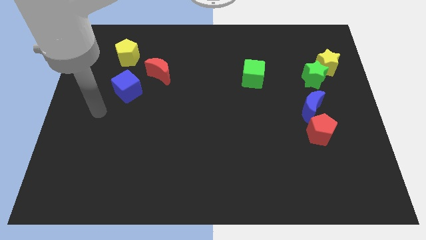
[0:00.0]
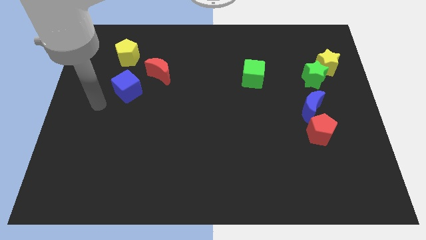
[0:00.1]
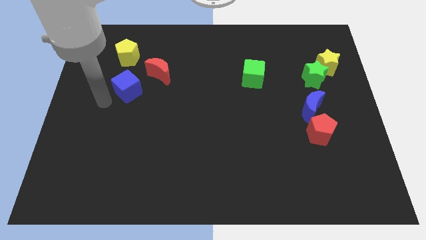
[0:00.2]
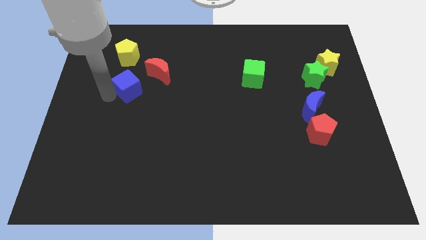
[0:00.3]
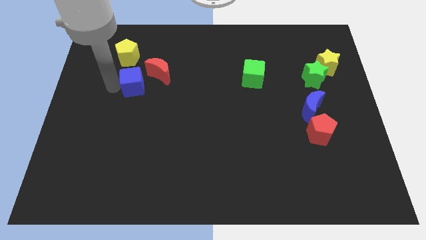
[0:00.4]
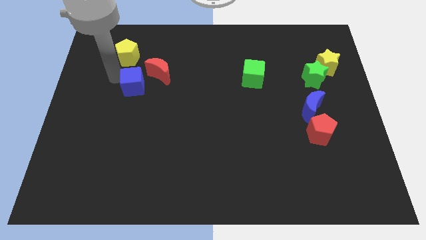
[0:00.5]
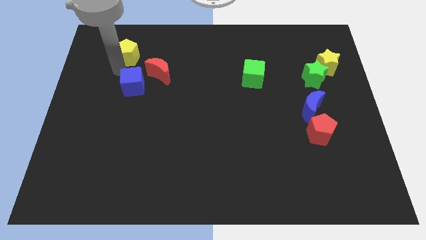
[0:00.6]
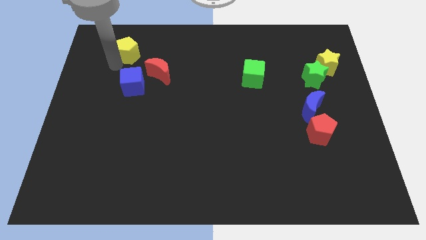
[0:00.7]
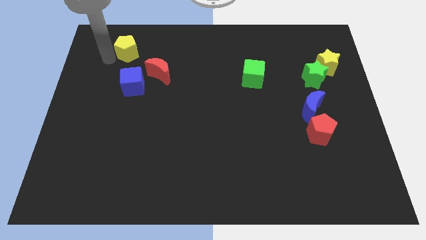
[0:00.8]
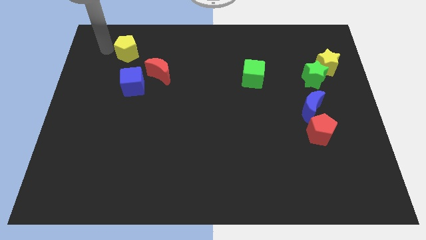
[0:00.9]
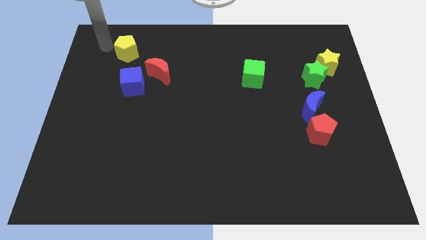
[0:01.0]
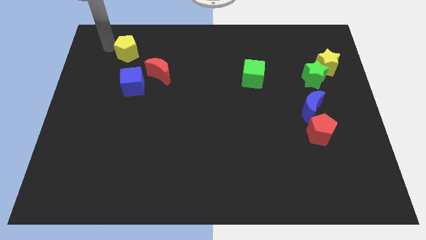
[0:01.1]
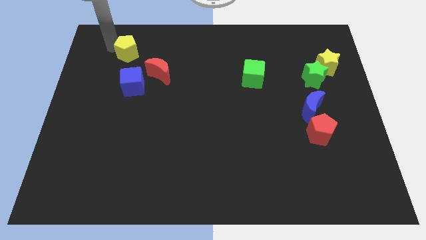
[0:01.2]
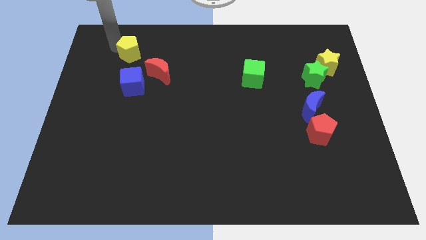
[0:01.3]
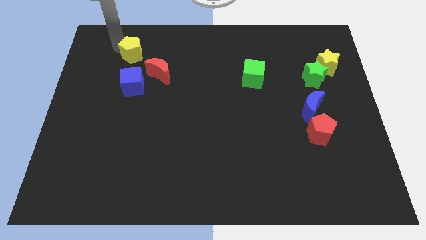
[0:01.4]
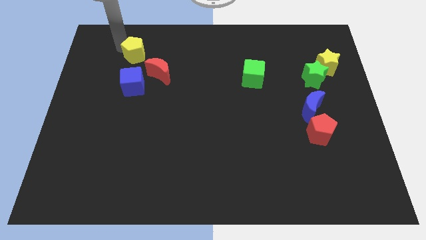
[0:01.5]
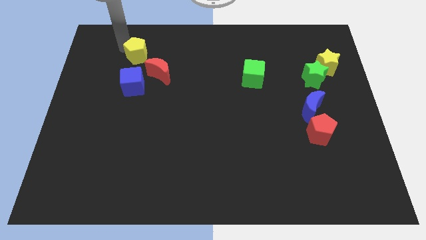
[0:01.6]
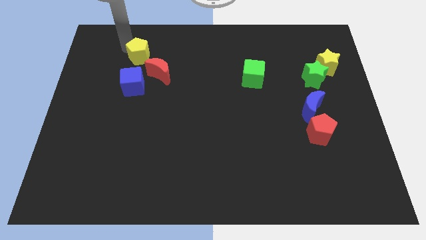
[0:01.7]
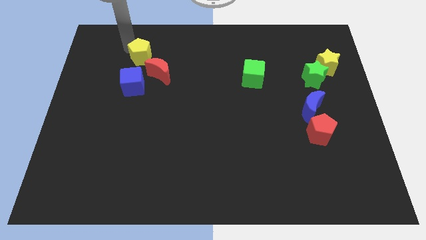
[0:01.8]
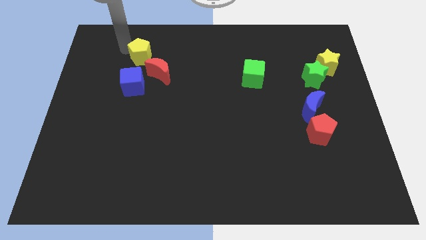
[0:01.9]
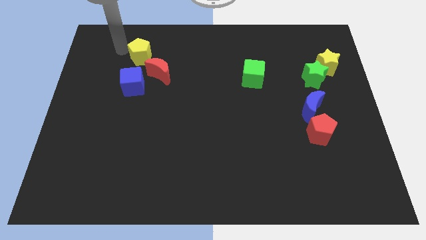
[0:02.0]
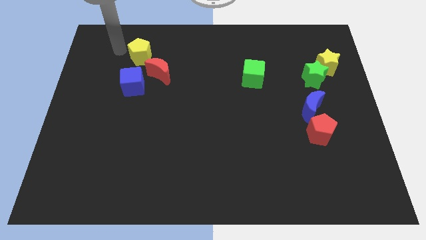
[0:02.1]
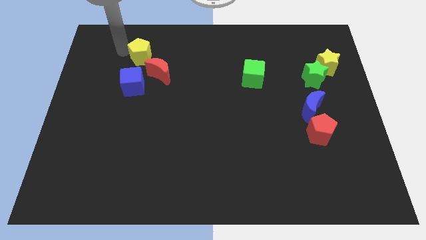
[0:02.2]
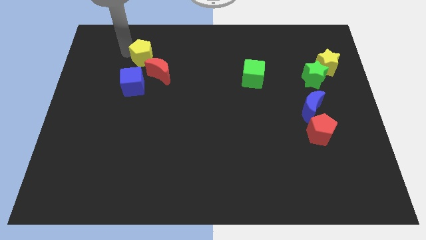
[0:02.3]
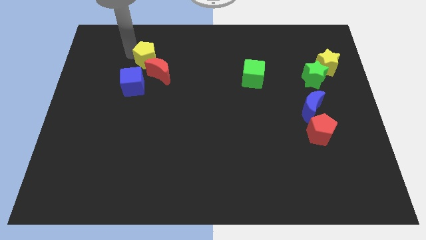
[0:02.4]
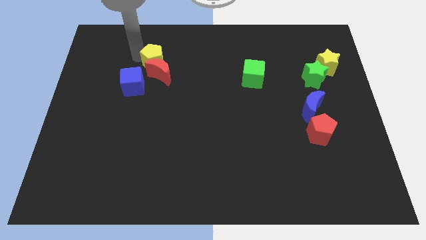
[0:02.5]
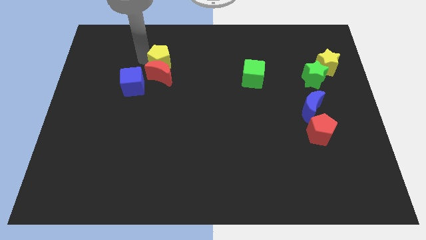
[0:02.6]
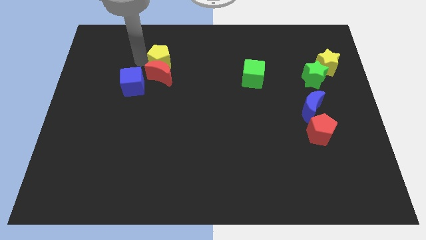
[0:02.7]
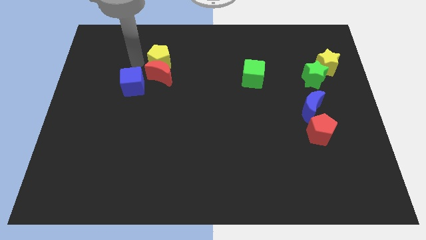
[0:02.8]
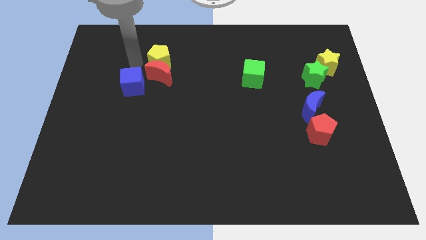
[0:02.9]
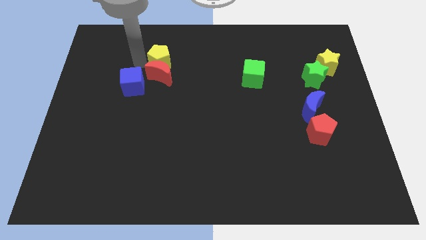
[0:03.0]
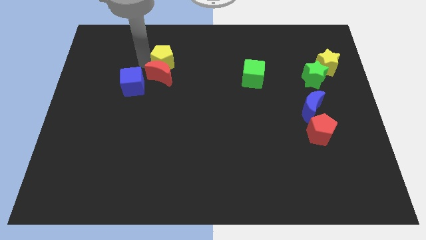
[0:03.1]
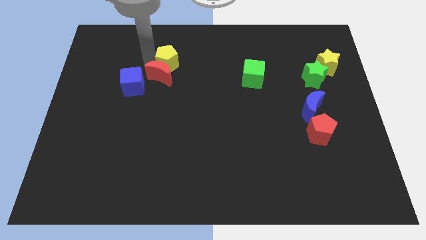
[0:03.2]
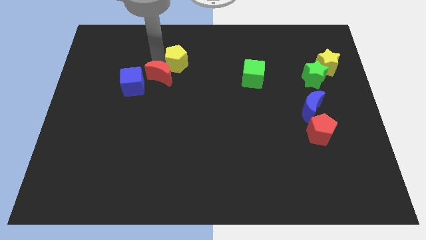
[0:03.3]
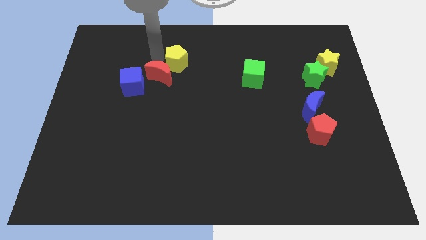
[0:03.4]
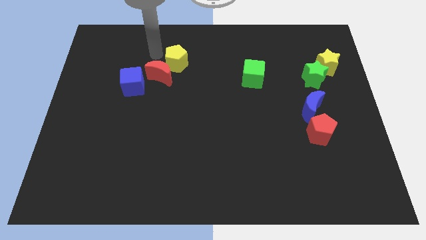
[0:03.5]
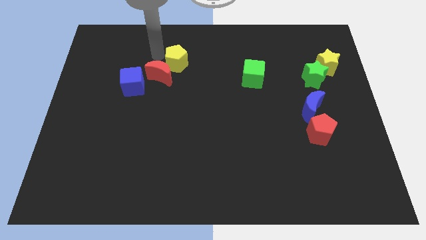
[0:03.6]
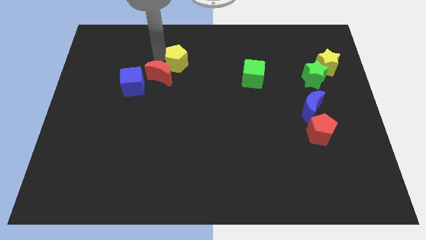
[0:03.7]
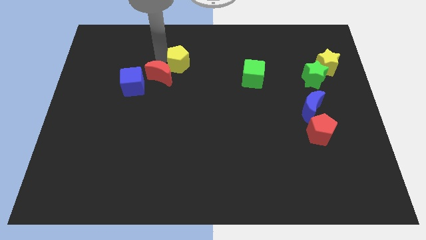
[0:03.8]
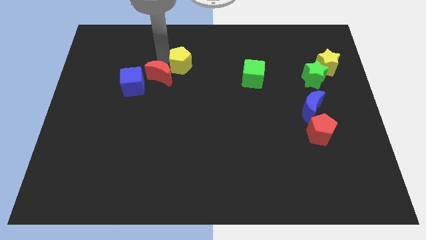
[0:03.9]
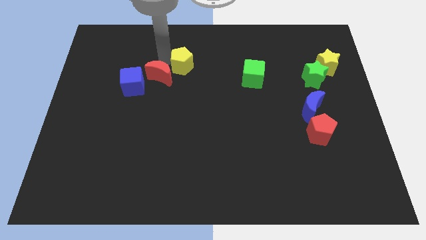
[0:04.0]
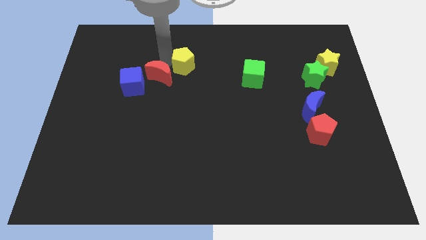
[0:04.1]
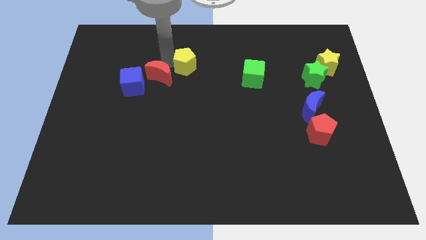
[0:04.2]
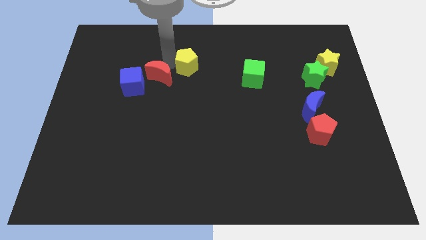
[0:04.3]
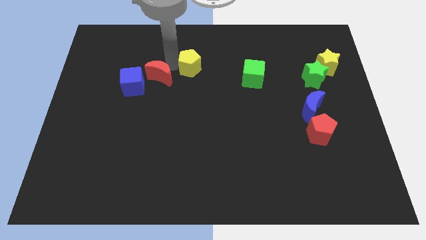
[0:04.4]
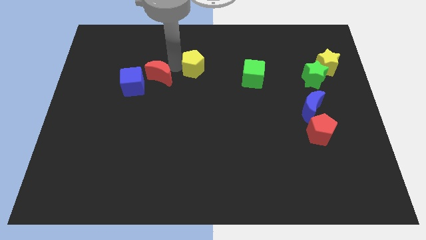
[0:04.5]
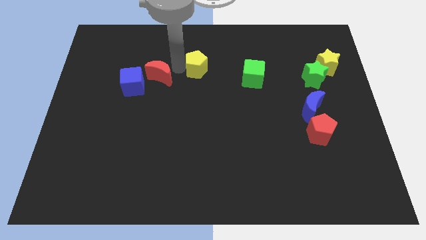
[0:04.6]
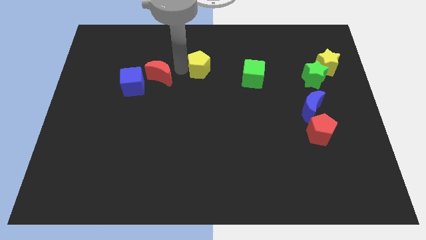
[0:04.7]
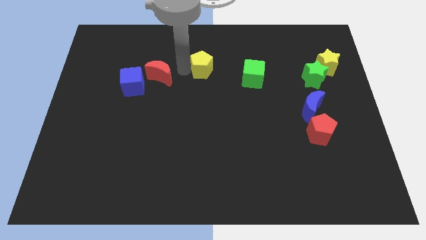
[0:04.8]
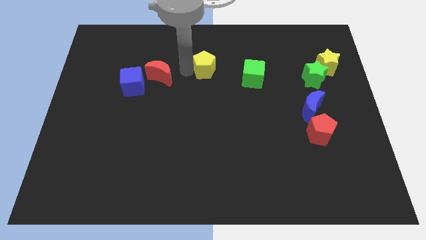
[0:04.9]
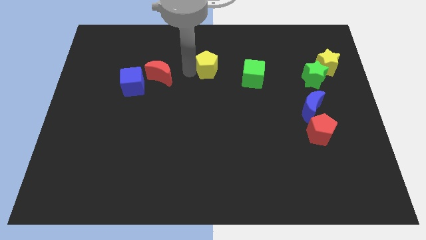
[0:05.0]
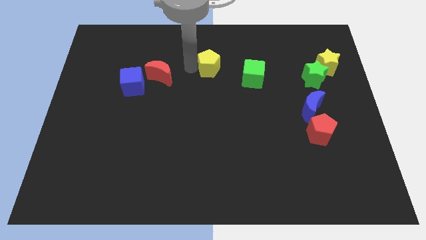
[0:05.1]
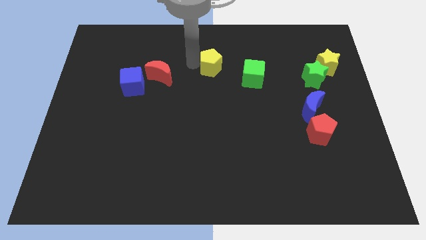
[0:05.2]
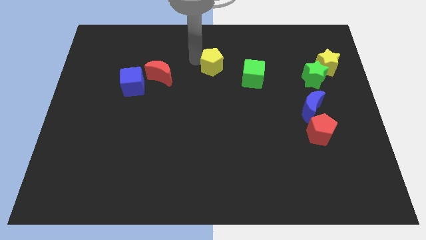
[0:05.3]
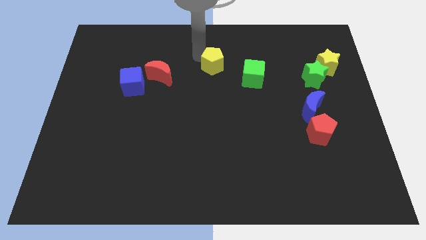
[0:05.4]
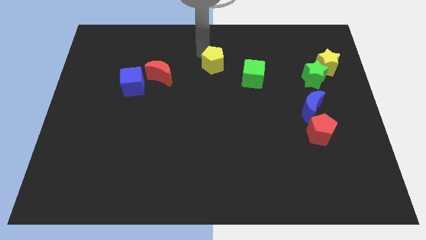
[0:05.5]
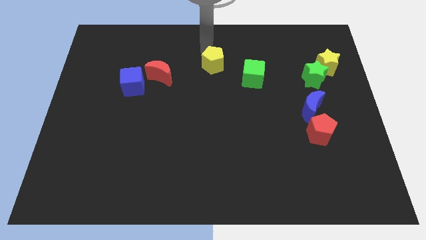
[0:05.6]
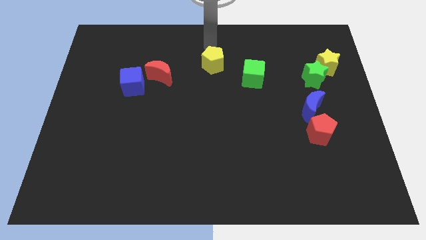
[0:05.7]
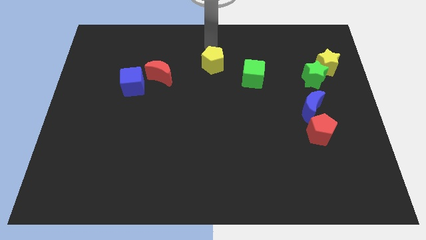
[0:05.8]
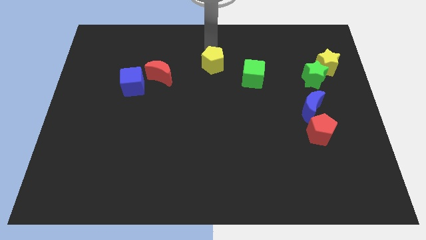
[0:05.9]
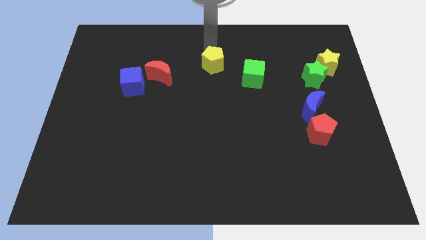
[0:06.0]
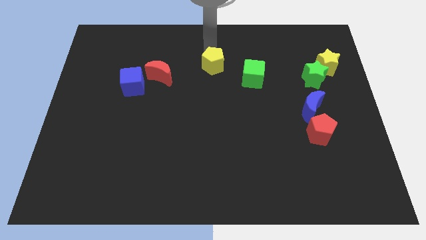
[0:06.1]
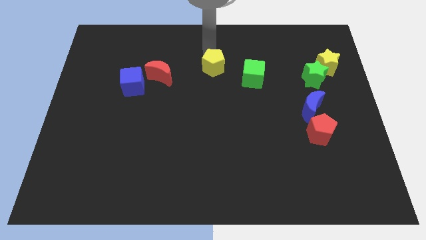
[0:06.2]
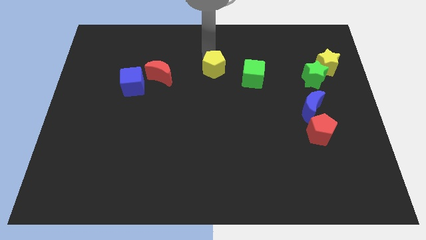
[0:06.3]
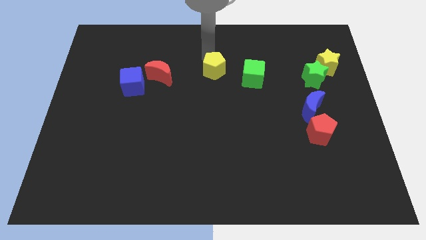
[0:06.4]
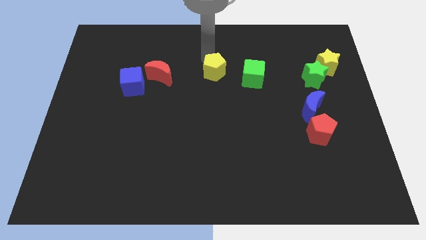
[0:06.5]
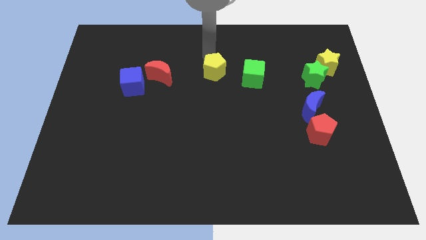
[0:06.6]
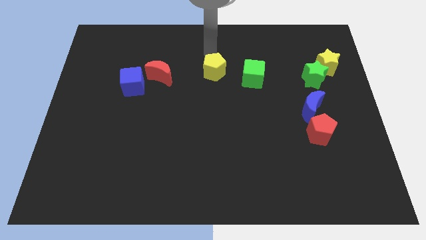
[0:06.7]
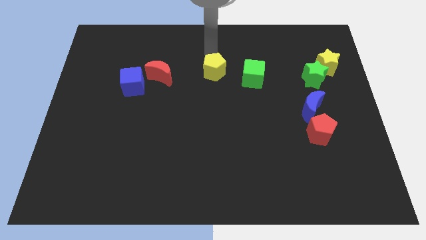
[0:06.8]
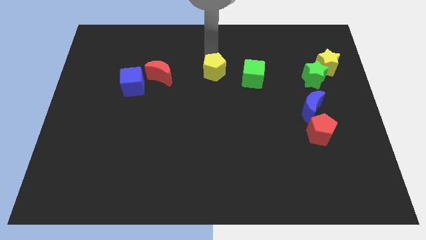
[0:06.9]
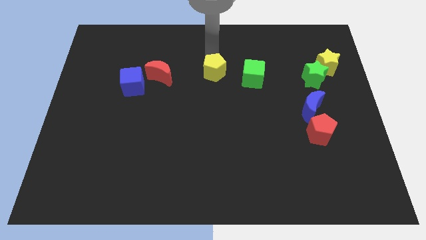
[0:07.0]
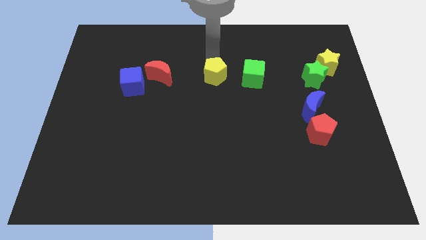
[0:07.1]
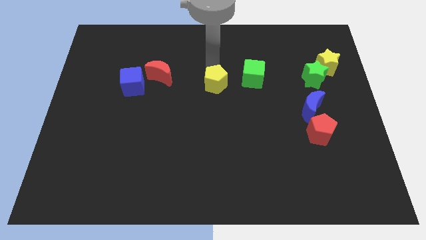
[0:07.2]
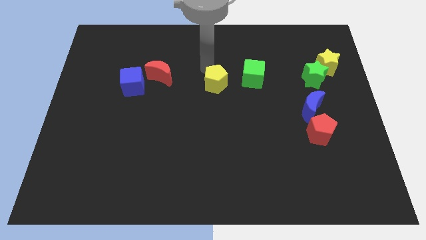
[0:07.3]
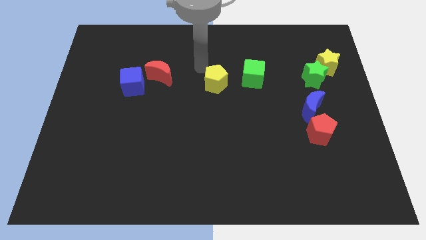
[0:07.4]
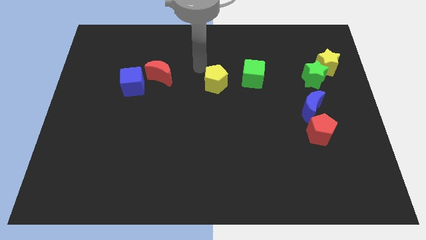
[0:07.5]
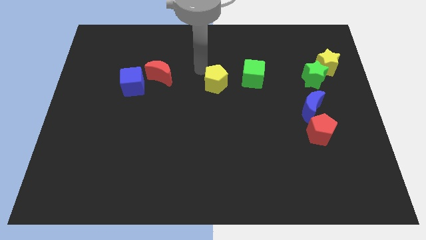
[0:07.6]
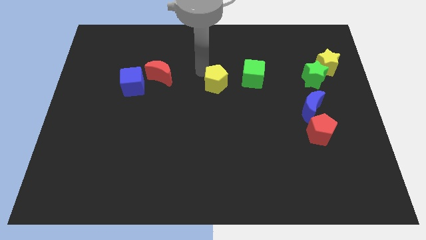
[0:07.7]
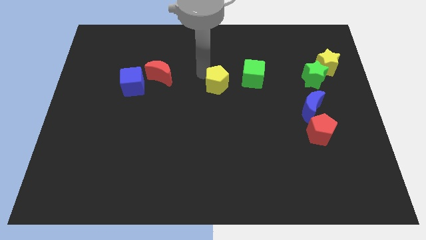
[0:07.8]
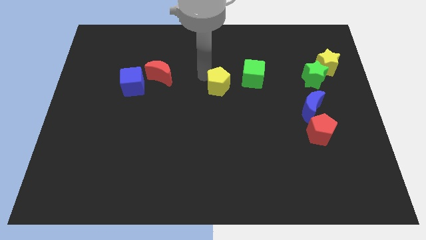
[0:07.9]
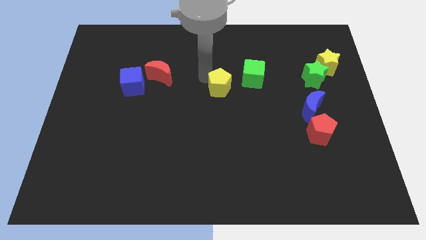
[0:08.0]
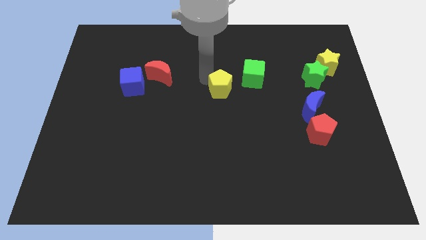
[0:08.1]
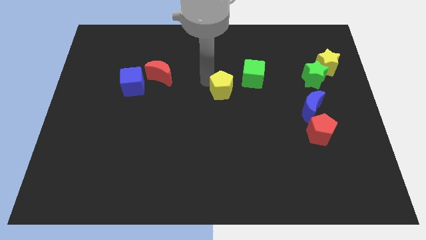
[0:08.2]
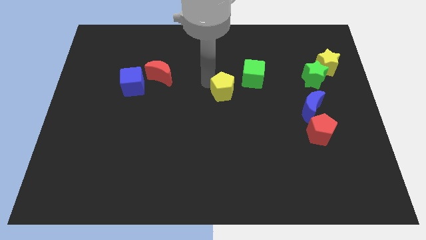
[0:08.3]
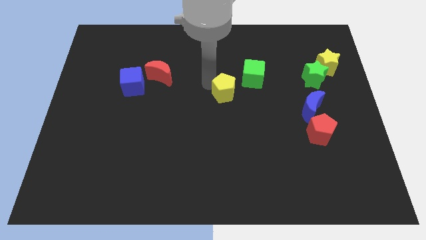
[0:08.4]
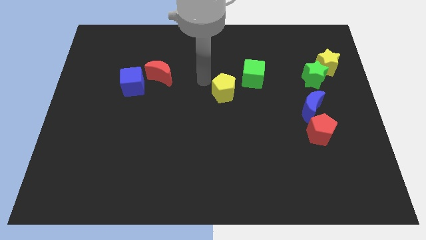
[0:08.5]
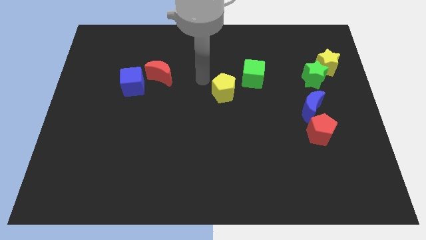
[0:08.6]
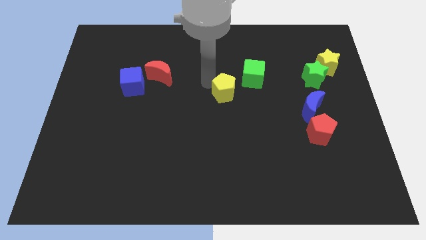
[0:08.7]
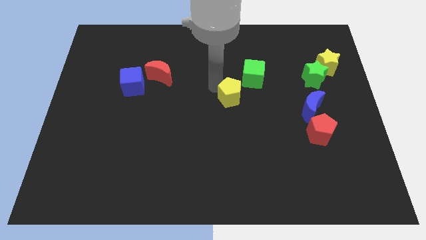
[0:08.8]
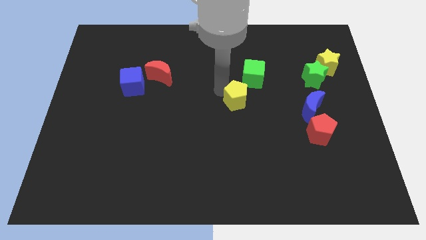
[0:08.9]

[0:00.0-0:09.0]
move the yellow pentagon below the green cube
